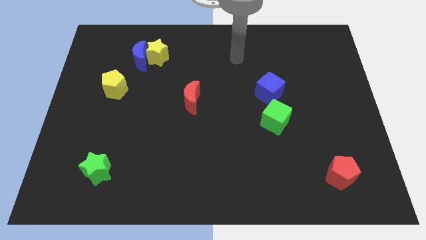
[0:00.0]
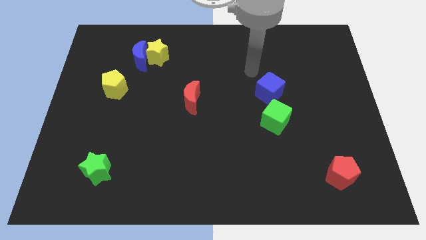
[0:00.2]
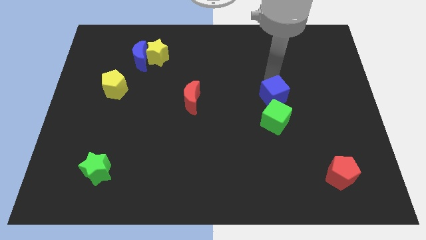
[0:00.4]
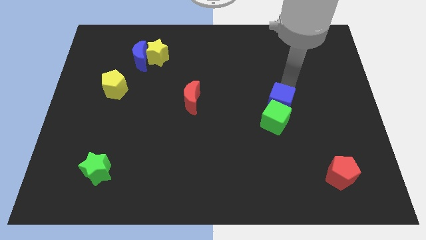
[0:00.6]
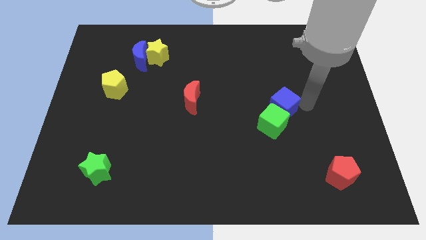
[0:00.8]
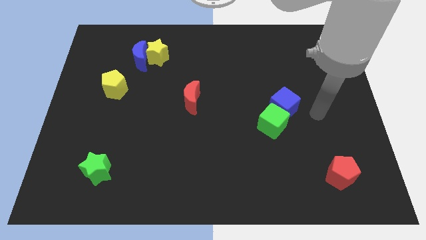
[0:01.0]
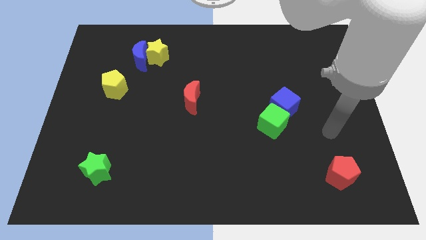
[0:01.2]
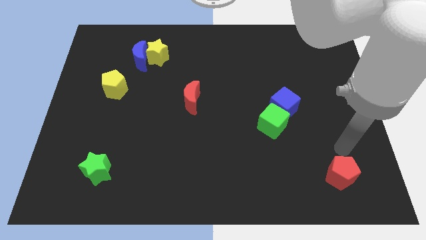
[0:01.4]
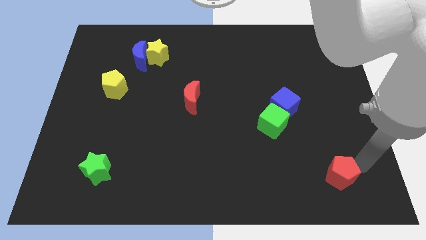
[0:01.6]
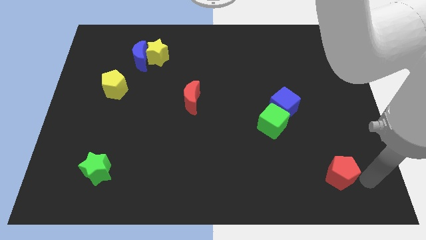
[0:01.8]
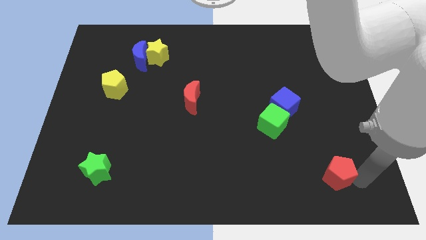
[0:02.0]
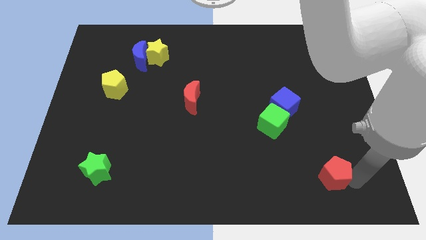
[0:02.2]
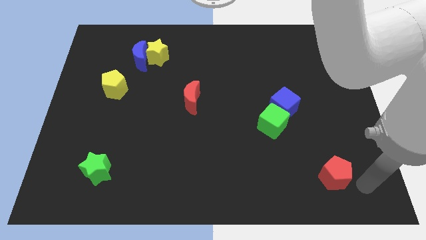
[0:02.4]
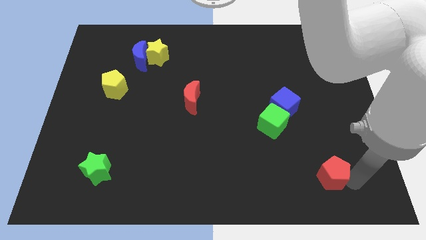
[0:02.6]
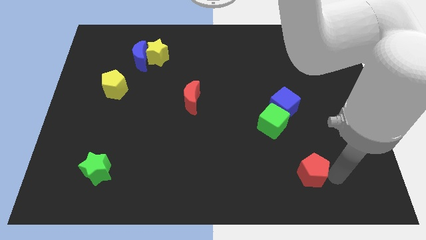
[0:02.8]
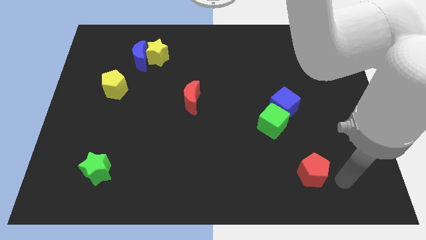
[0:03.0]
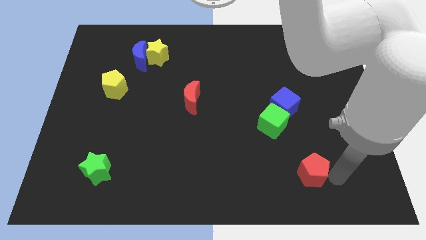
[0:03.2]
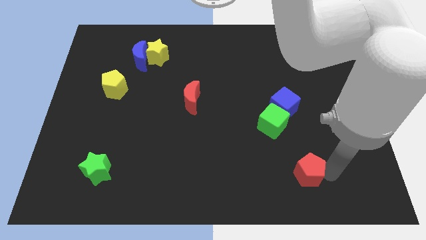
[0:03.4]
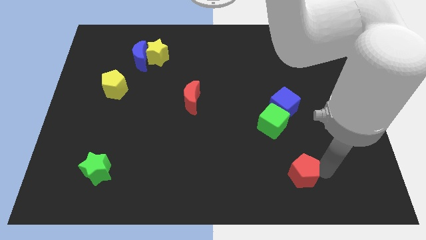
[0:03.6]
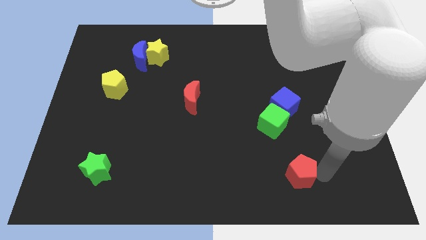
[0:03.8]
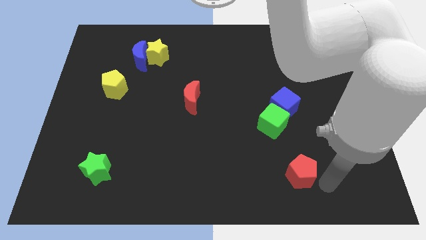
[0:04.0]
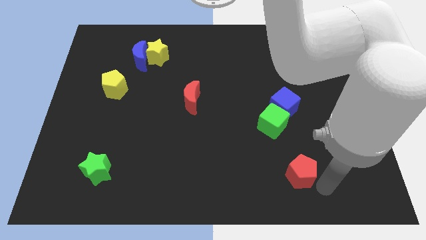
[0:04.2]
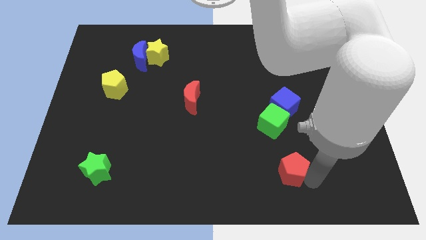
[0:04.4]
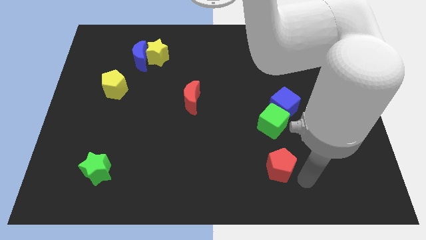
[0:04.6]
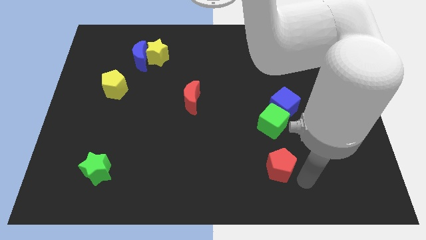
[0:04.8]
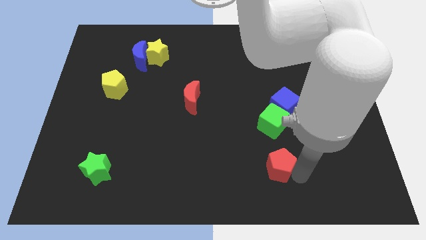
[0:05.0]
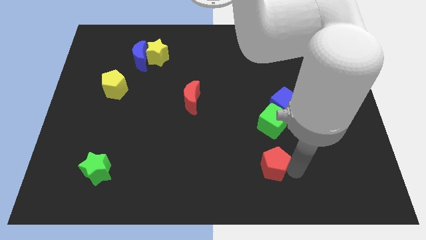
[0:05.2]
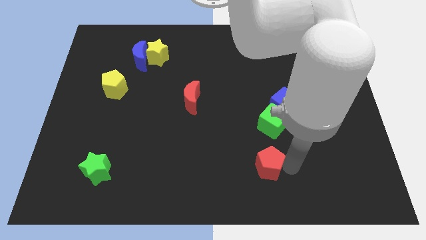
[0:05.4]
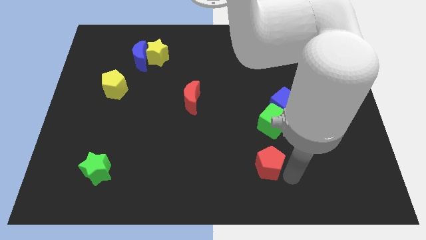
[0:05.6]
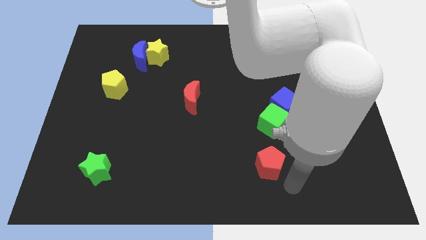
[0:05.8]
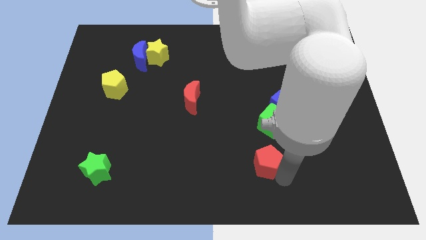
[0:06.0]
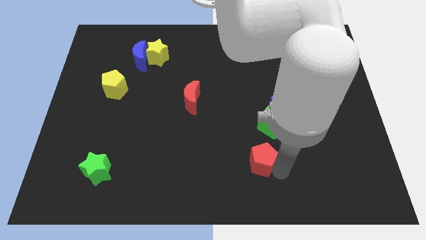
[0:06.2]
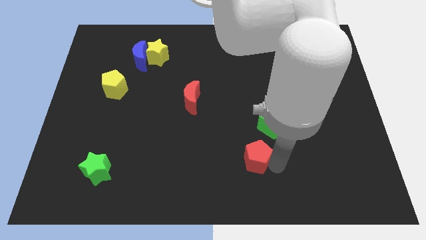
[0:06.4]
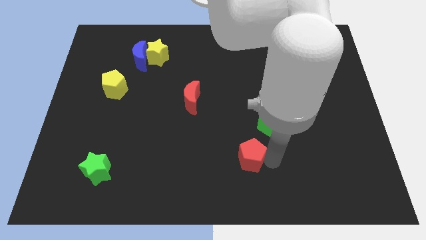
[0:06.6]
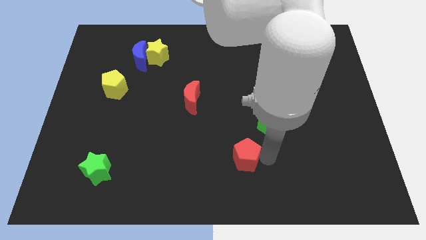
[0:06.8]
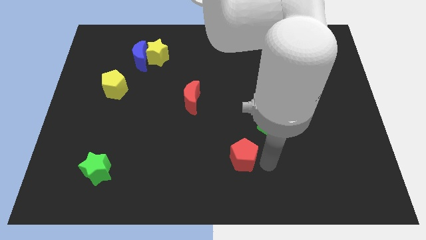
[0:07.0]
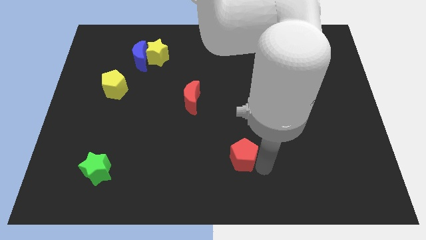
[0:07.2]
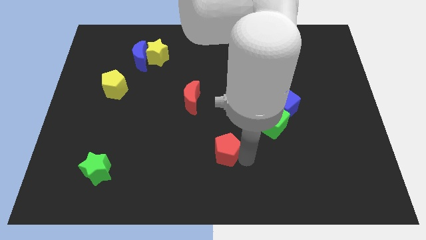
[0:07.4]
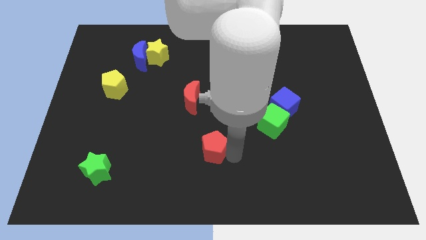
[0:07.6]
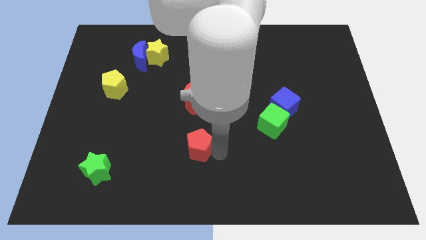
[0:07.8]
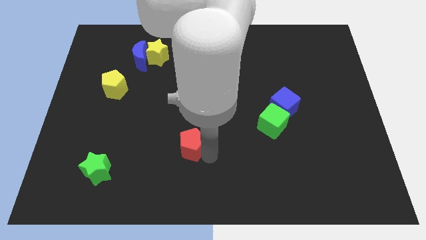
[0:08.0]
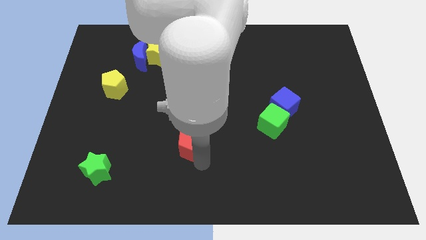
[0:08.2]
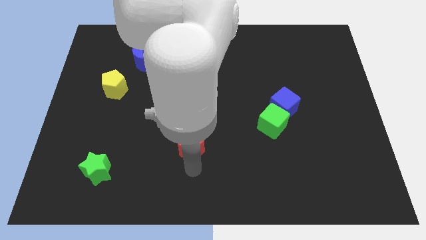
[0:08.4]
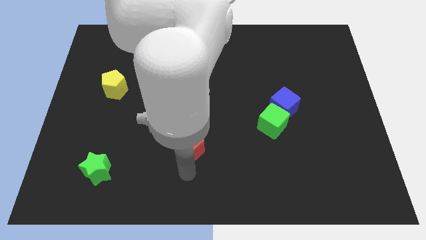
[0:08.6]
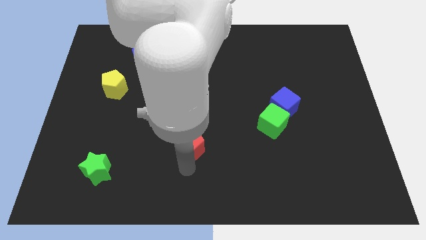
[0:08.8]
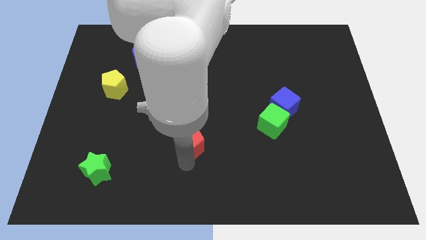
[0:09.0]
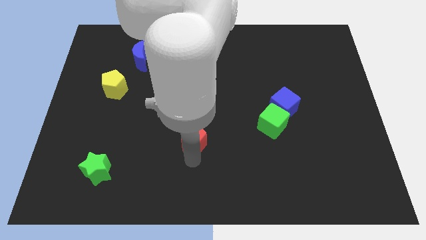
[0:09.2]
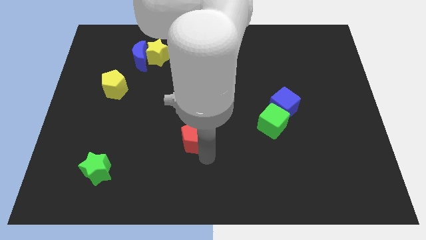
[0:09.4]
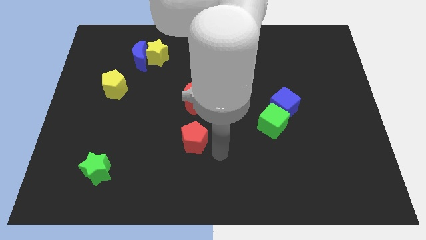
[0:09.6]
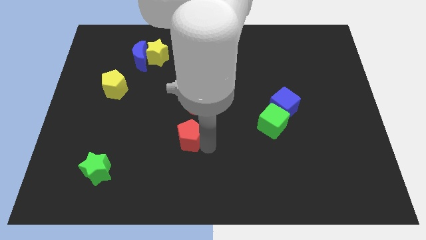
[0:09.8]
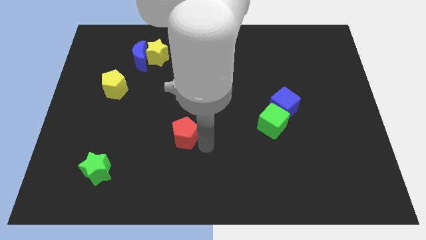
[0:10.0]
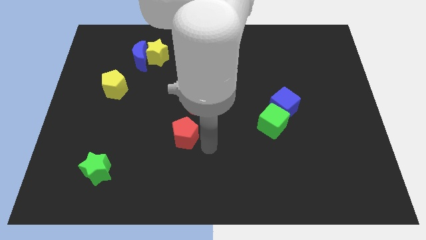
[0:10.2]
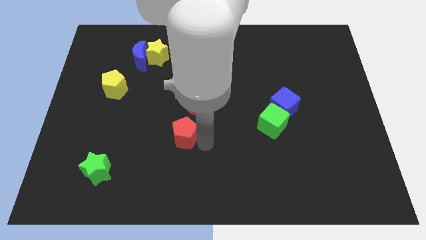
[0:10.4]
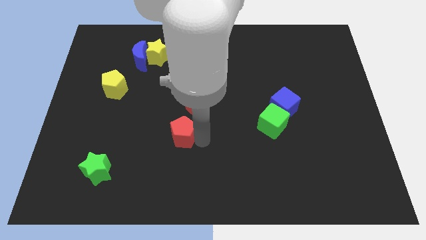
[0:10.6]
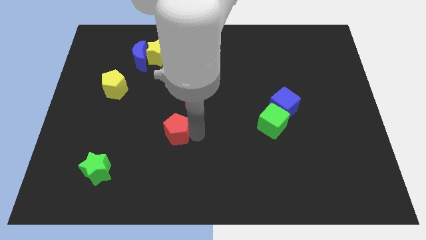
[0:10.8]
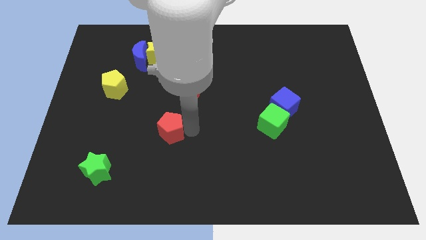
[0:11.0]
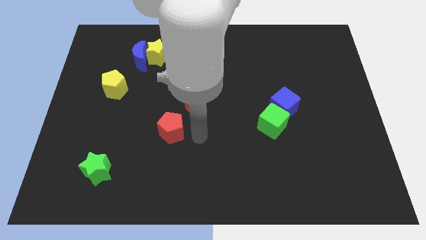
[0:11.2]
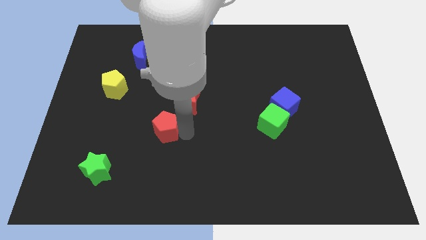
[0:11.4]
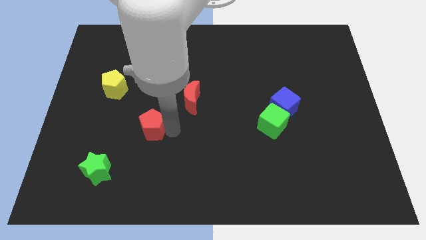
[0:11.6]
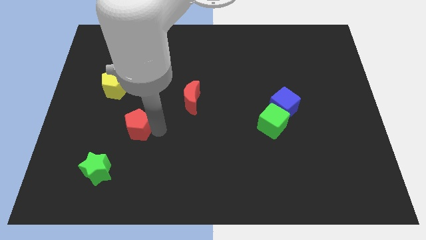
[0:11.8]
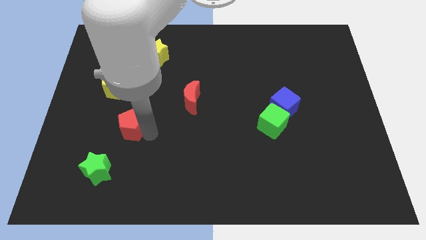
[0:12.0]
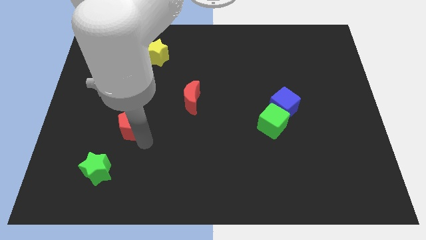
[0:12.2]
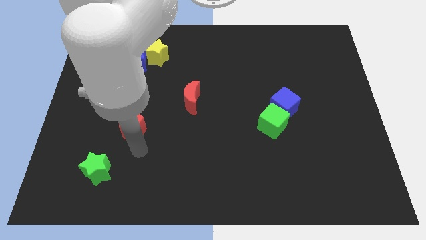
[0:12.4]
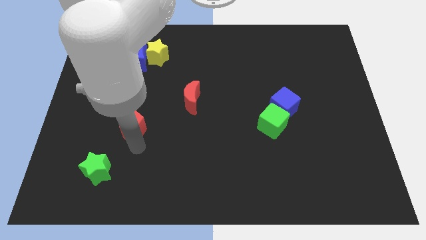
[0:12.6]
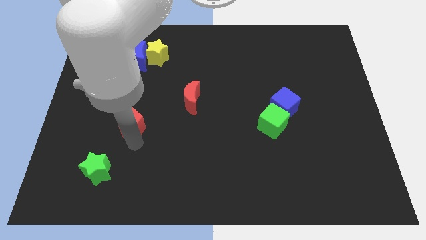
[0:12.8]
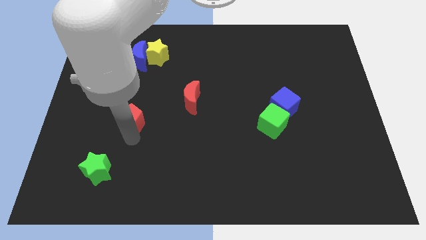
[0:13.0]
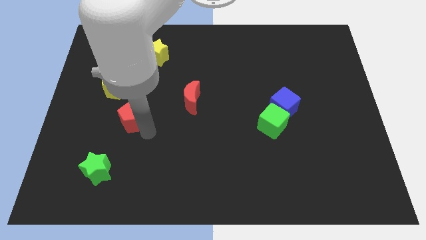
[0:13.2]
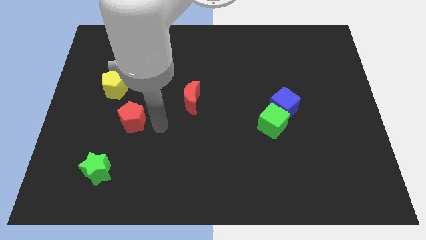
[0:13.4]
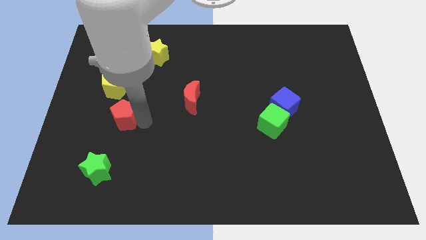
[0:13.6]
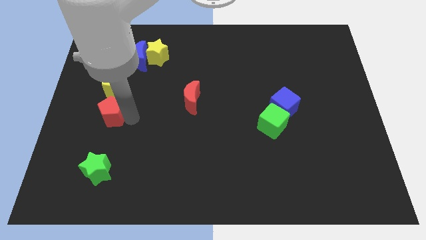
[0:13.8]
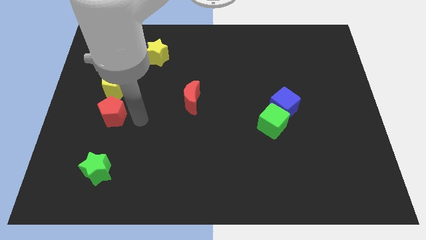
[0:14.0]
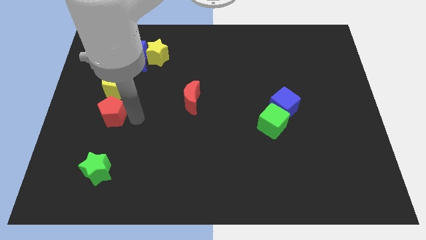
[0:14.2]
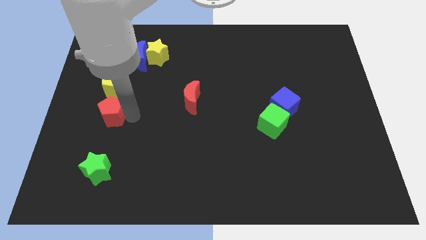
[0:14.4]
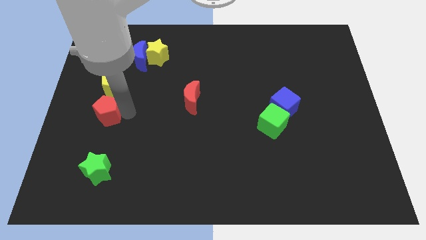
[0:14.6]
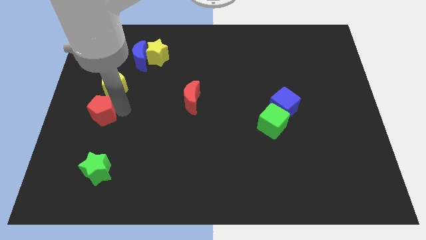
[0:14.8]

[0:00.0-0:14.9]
put the red pentagon to the center left

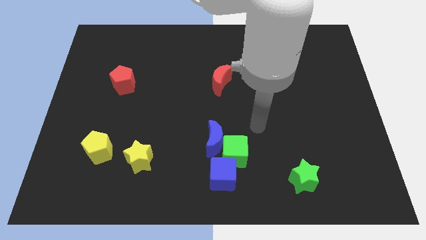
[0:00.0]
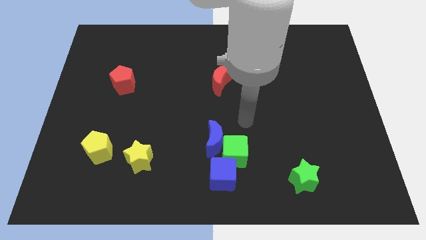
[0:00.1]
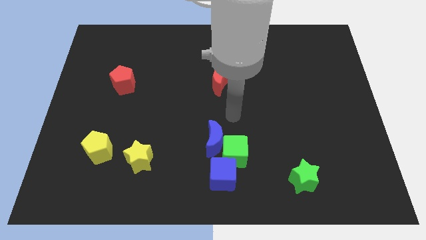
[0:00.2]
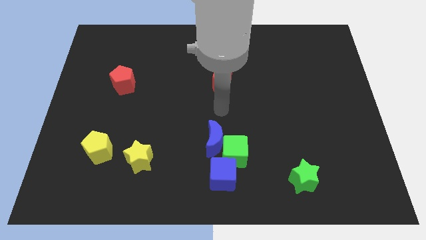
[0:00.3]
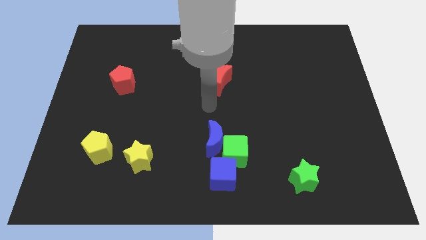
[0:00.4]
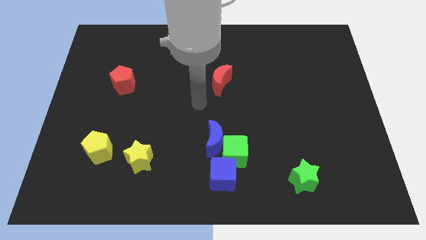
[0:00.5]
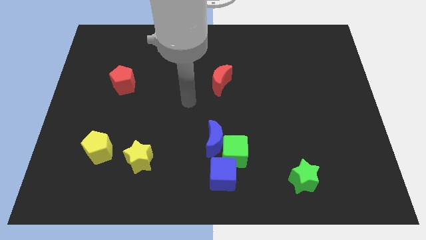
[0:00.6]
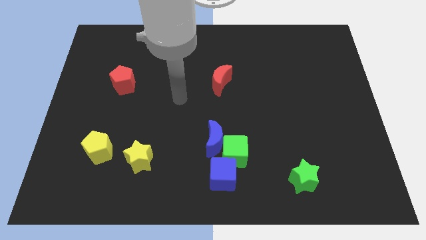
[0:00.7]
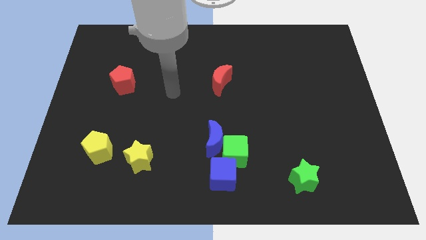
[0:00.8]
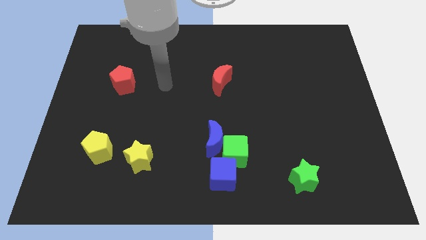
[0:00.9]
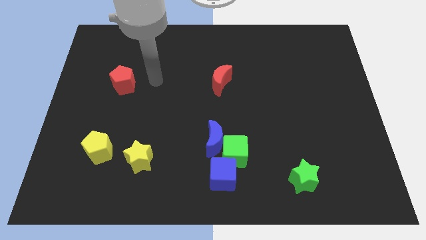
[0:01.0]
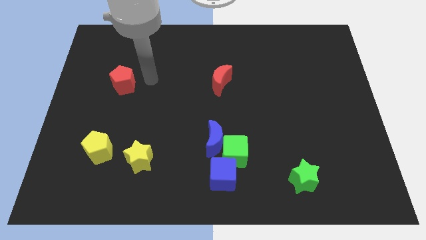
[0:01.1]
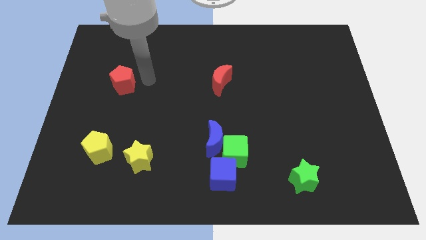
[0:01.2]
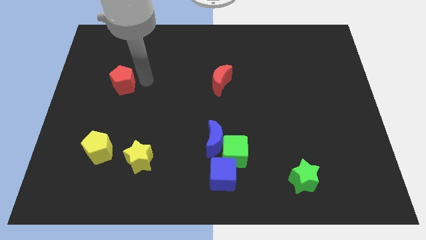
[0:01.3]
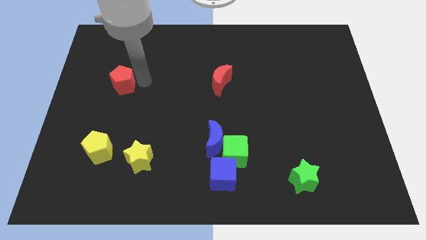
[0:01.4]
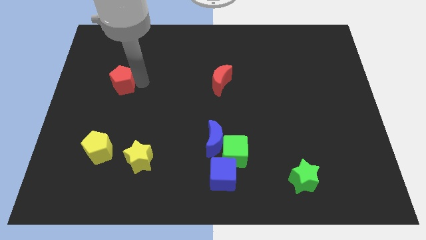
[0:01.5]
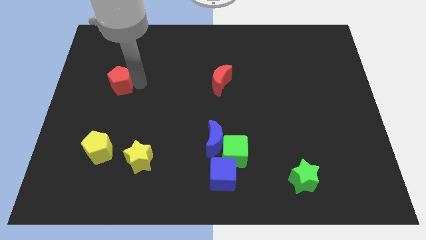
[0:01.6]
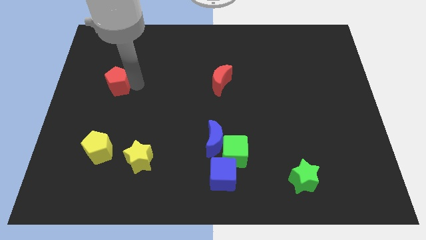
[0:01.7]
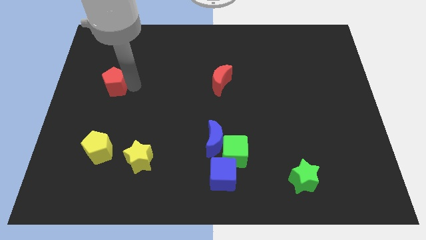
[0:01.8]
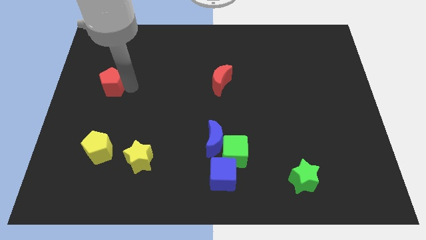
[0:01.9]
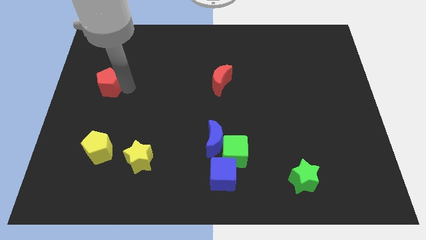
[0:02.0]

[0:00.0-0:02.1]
move the red pentagon to the left side of the board
